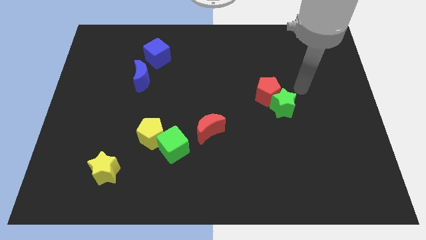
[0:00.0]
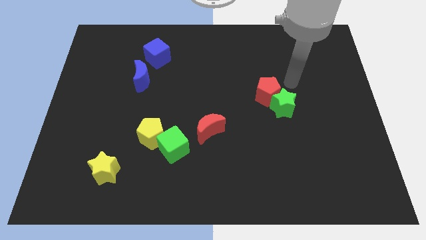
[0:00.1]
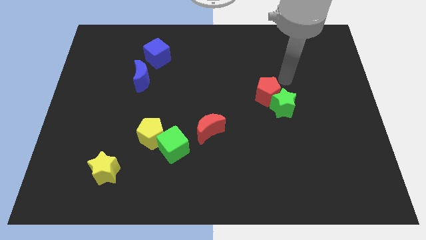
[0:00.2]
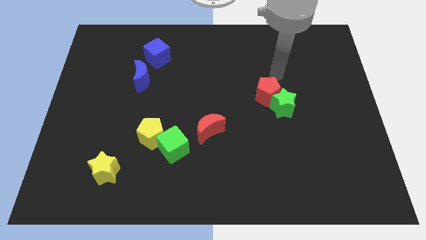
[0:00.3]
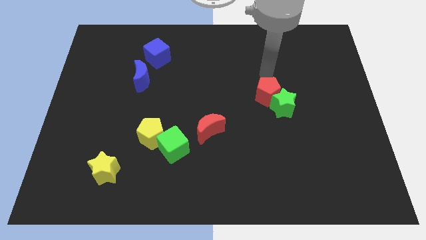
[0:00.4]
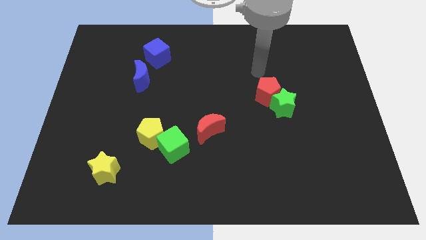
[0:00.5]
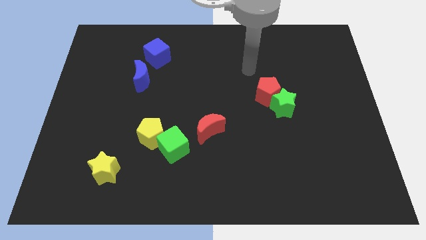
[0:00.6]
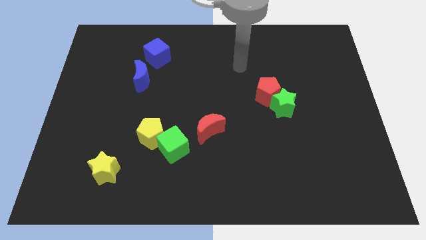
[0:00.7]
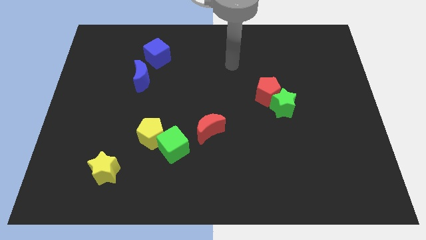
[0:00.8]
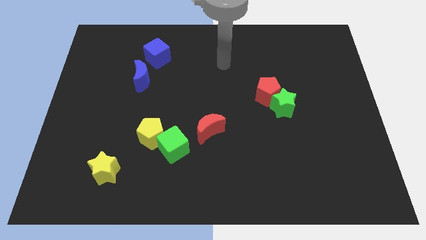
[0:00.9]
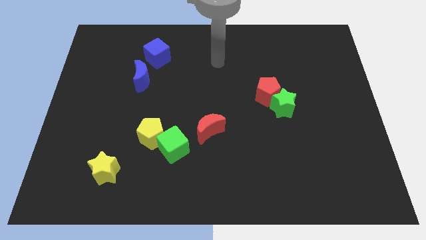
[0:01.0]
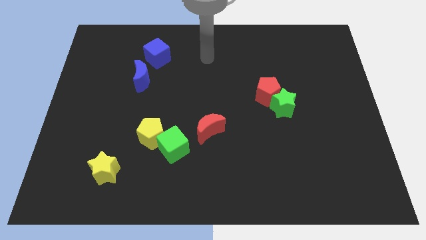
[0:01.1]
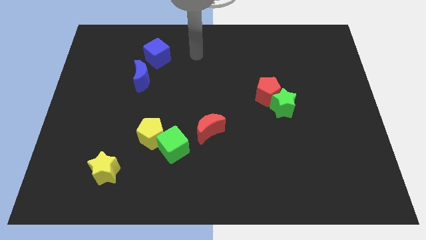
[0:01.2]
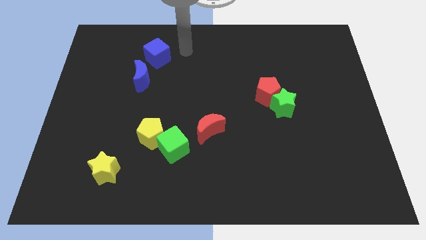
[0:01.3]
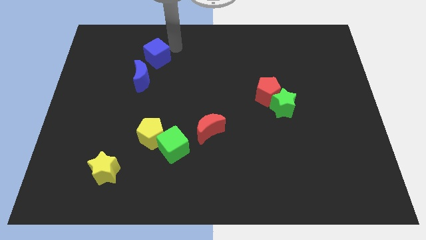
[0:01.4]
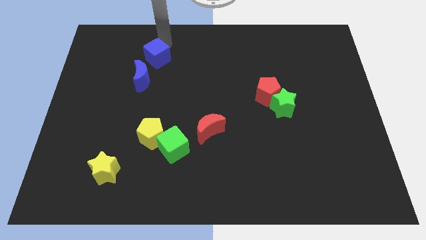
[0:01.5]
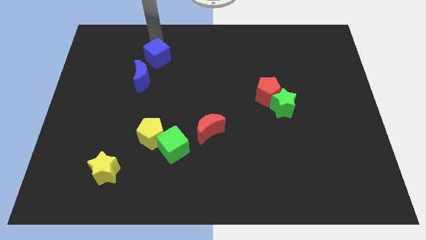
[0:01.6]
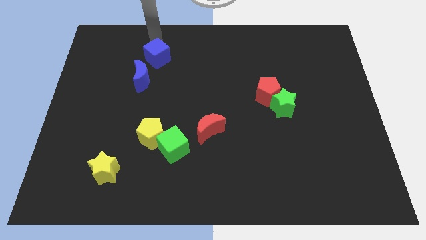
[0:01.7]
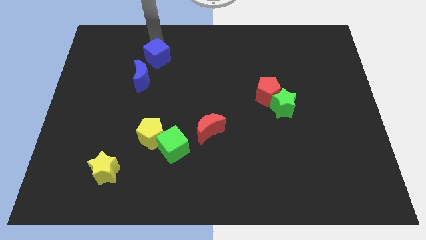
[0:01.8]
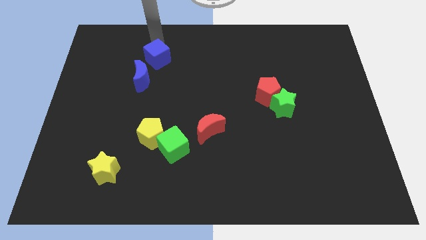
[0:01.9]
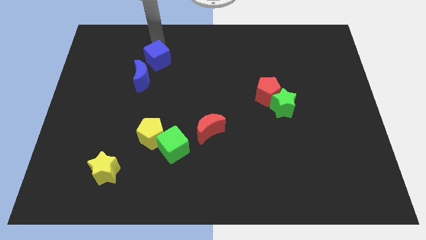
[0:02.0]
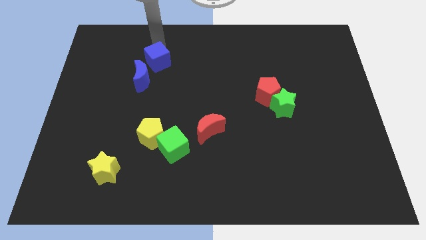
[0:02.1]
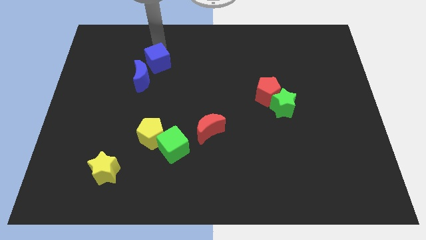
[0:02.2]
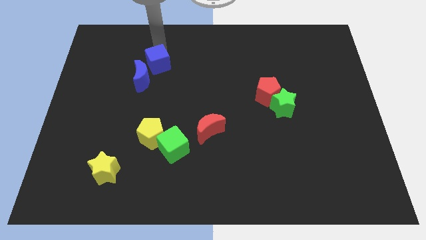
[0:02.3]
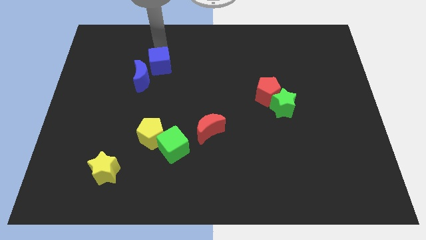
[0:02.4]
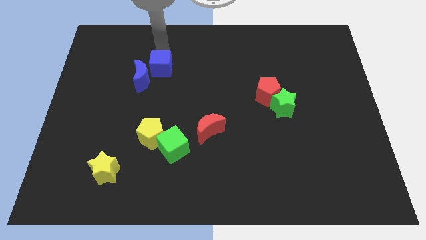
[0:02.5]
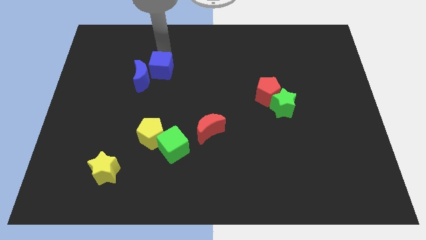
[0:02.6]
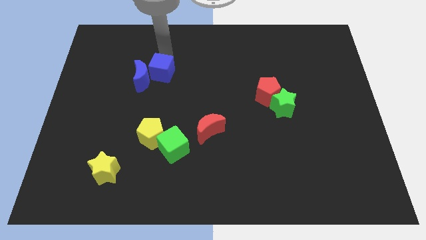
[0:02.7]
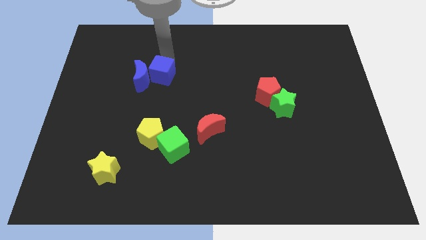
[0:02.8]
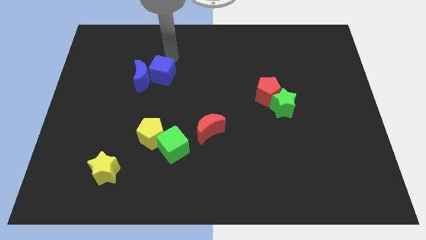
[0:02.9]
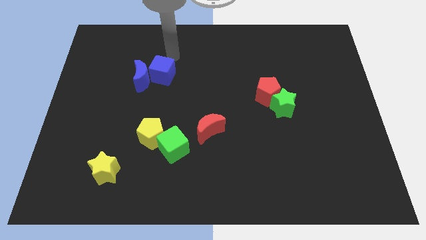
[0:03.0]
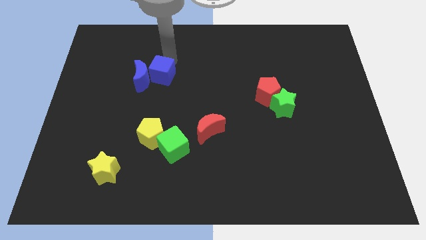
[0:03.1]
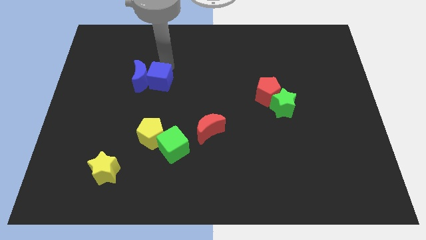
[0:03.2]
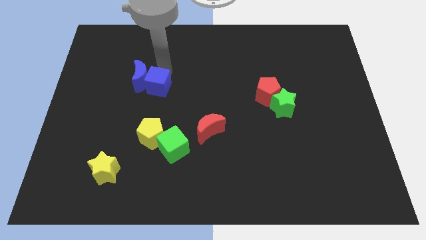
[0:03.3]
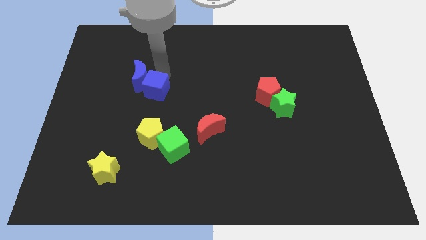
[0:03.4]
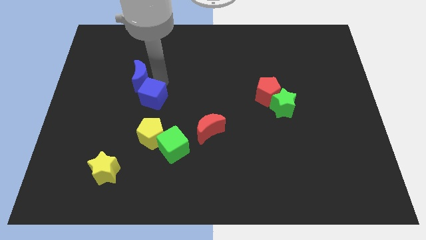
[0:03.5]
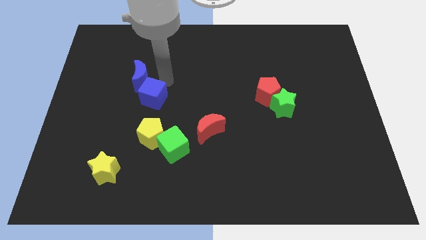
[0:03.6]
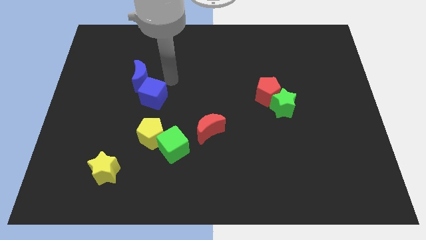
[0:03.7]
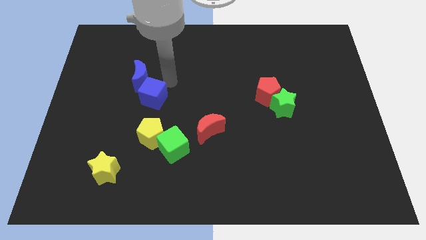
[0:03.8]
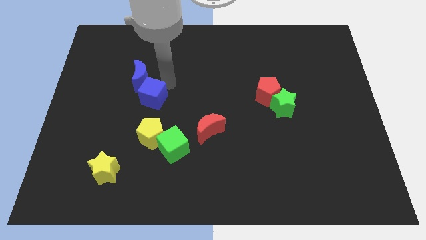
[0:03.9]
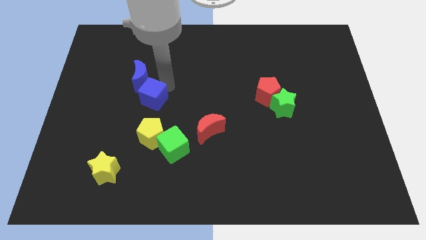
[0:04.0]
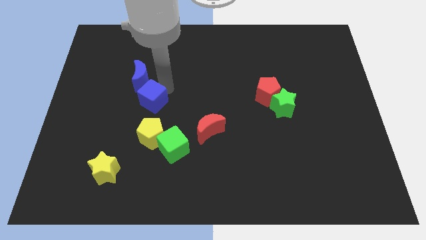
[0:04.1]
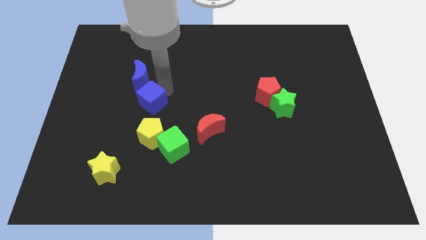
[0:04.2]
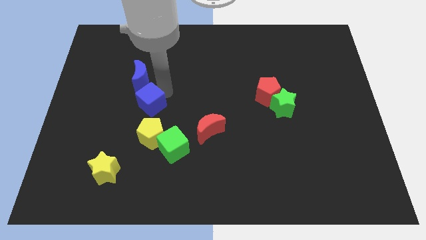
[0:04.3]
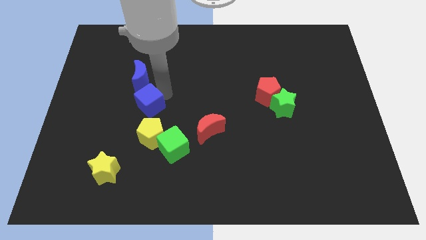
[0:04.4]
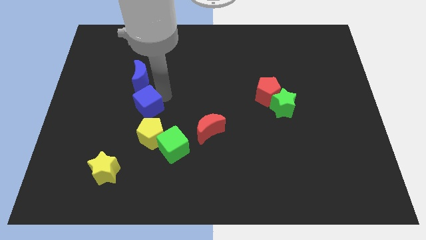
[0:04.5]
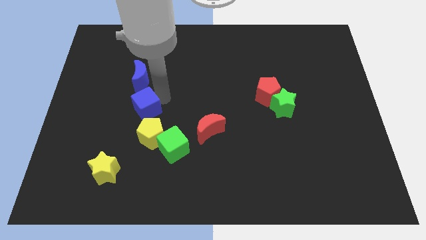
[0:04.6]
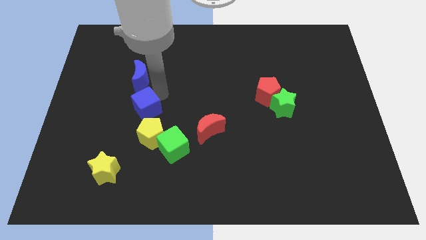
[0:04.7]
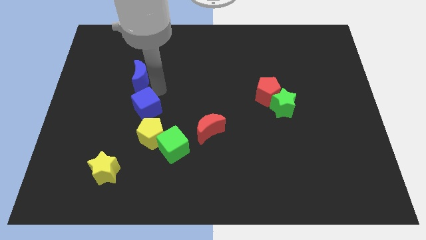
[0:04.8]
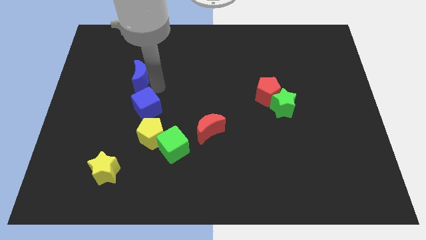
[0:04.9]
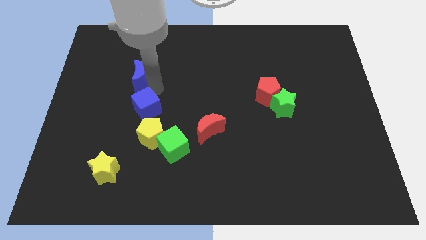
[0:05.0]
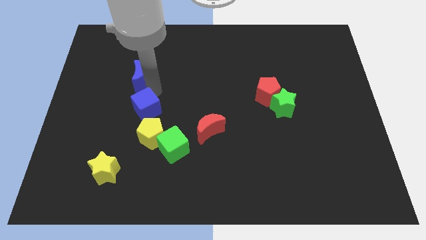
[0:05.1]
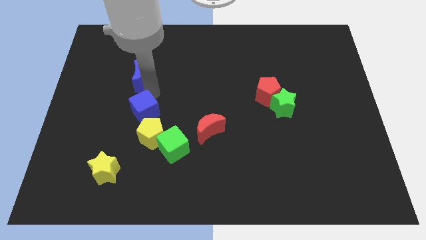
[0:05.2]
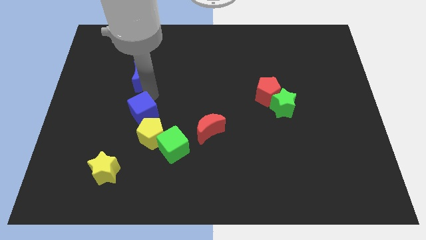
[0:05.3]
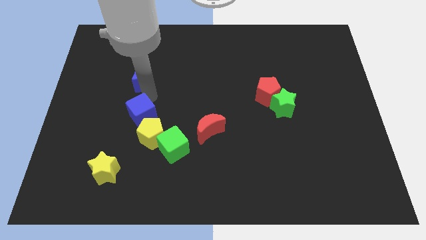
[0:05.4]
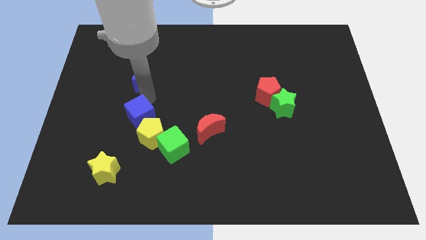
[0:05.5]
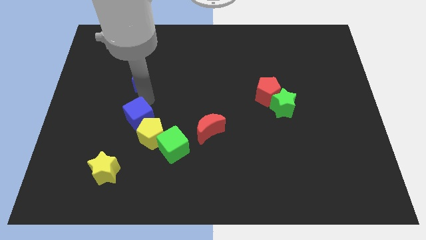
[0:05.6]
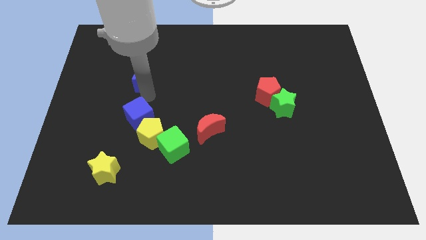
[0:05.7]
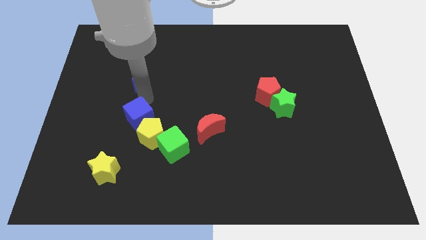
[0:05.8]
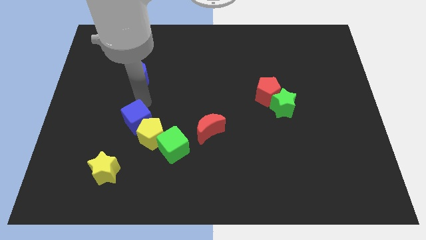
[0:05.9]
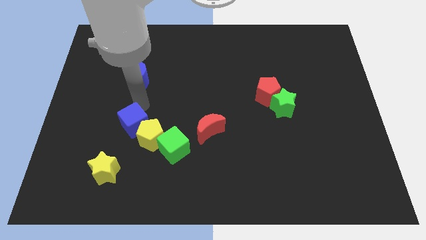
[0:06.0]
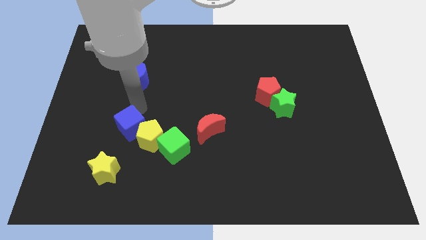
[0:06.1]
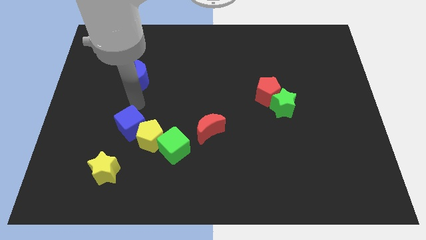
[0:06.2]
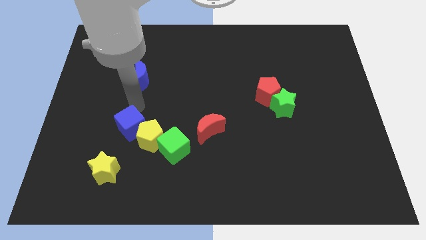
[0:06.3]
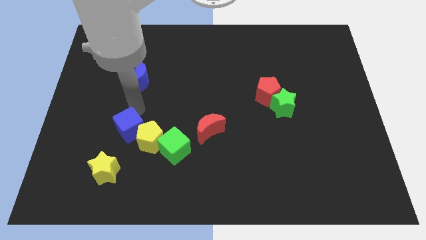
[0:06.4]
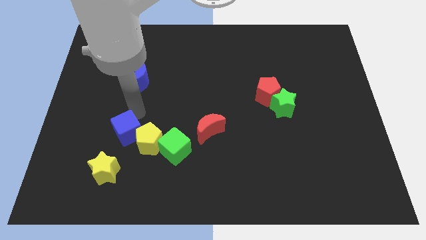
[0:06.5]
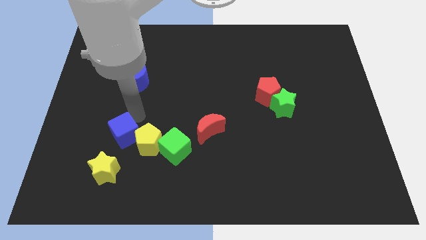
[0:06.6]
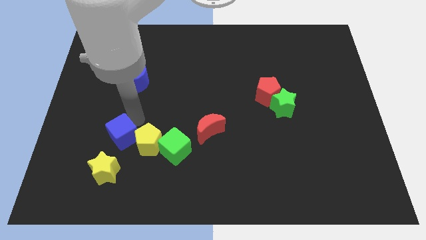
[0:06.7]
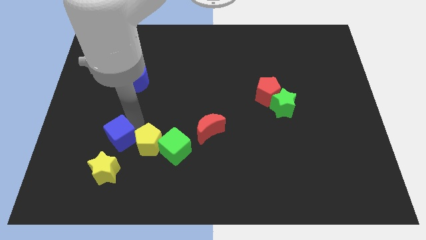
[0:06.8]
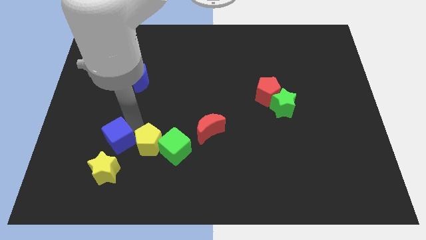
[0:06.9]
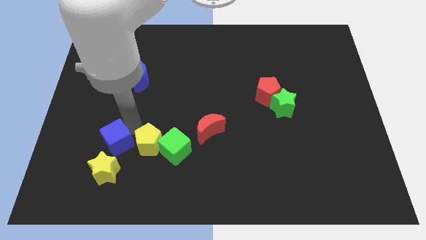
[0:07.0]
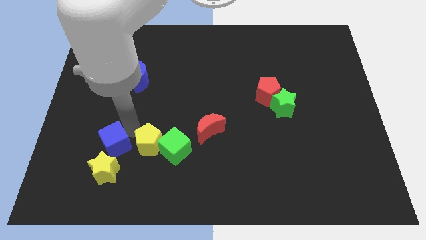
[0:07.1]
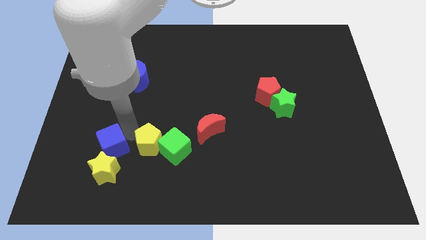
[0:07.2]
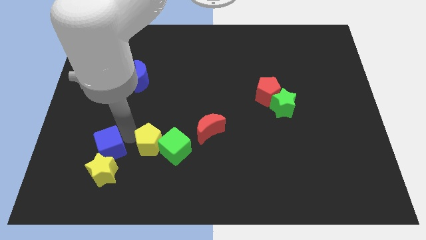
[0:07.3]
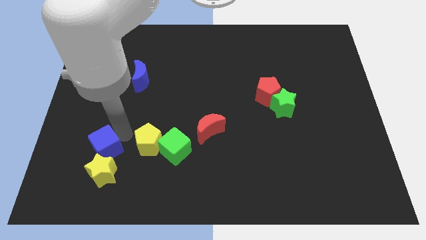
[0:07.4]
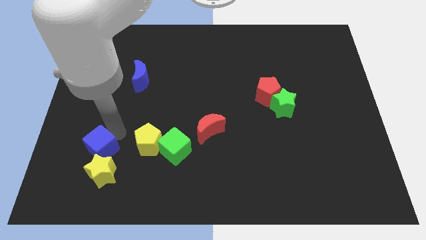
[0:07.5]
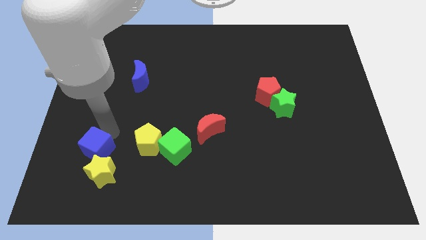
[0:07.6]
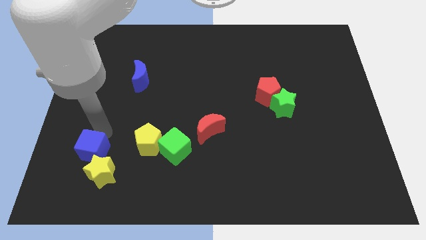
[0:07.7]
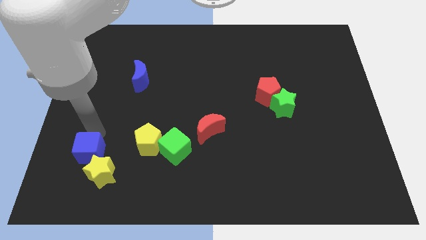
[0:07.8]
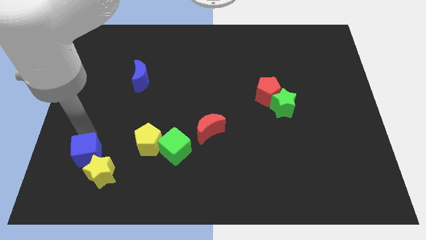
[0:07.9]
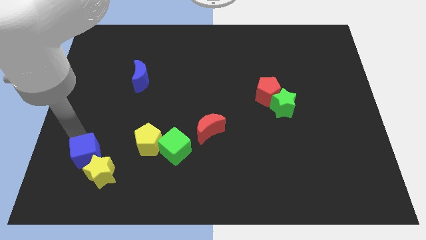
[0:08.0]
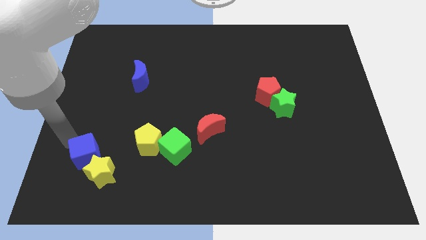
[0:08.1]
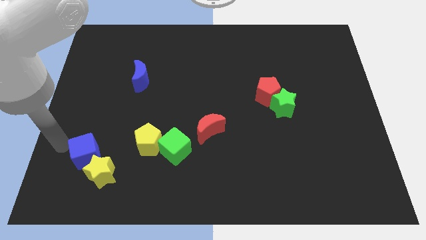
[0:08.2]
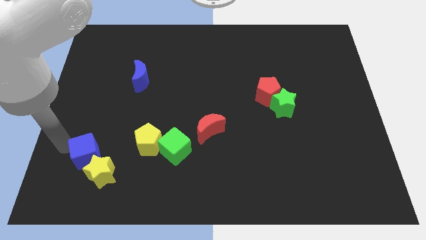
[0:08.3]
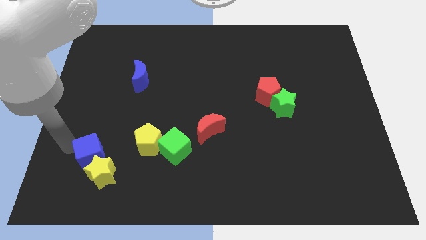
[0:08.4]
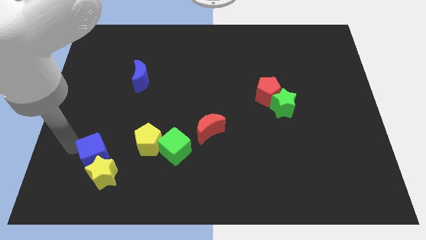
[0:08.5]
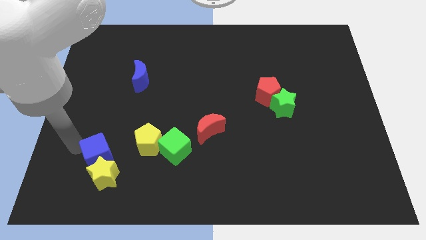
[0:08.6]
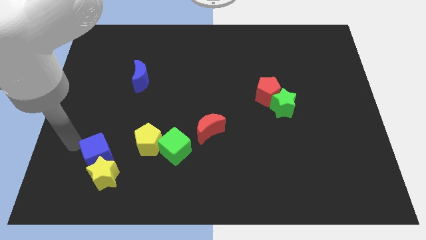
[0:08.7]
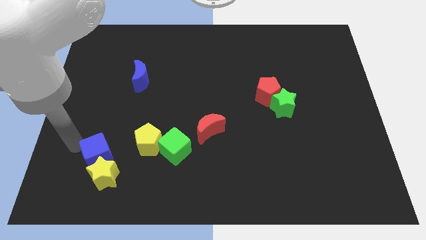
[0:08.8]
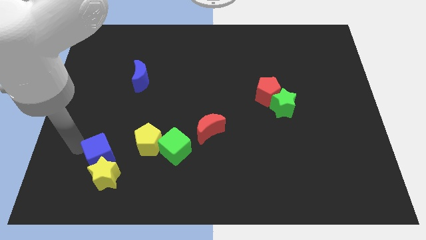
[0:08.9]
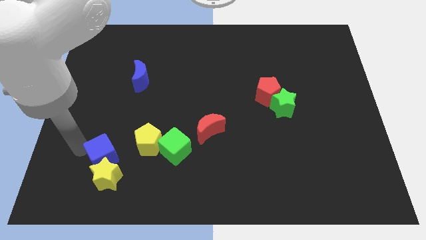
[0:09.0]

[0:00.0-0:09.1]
put the blue cube diagonally down and to the left of the yellow pentagon
